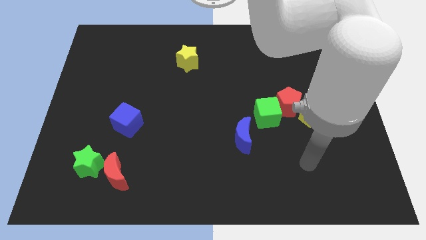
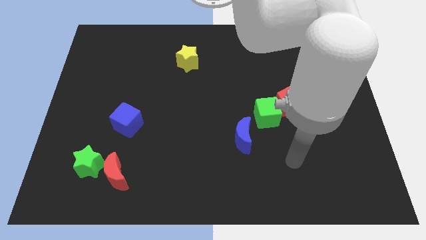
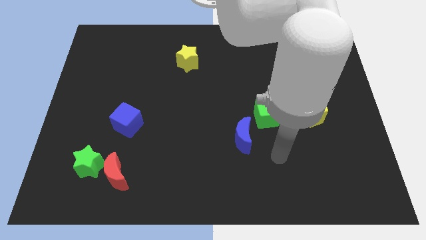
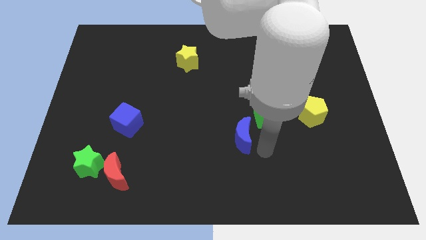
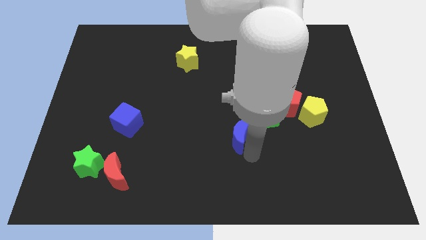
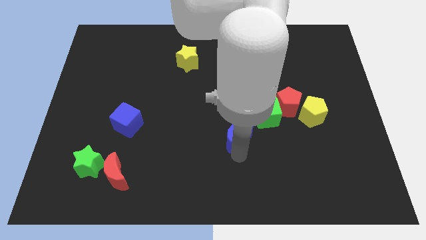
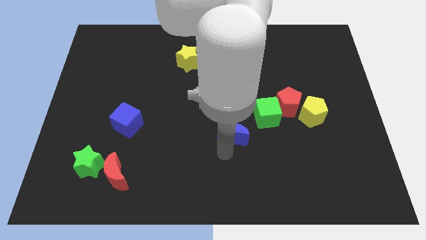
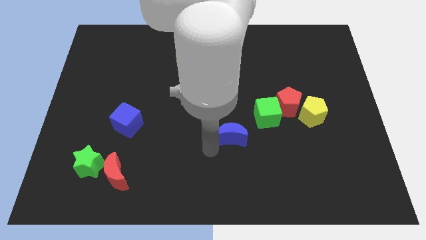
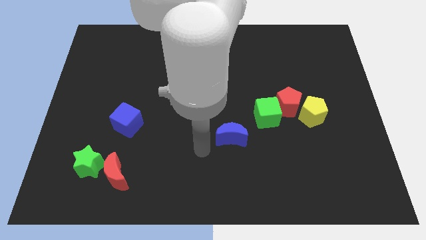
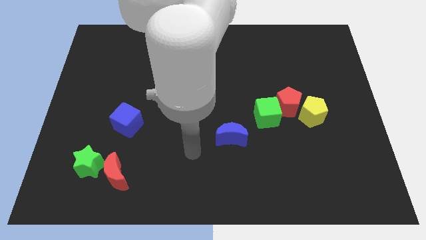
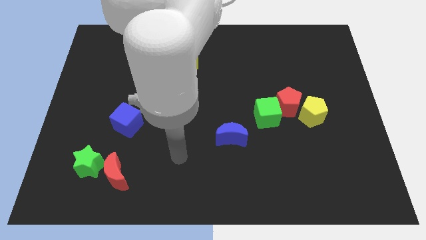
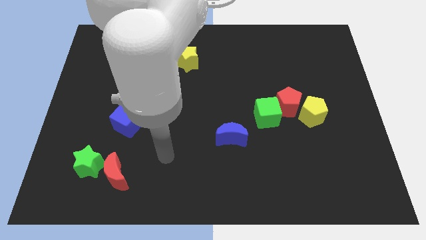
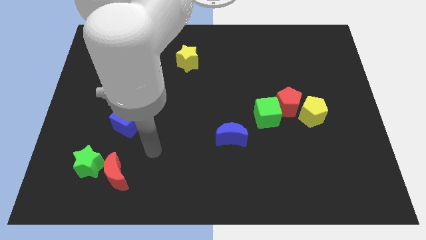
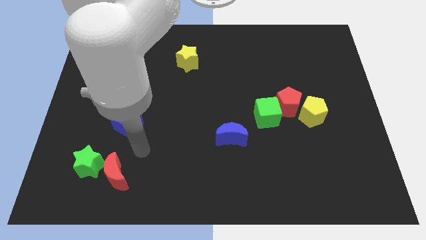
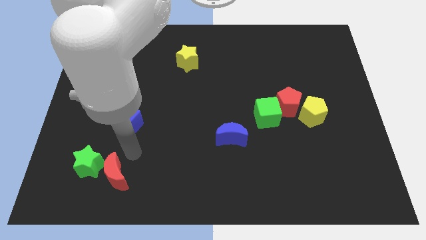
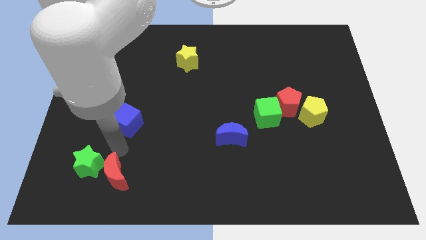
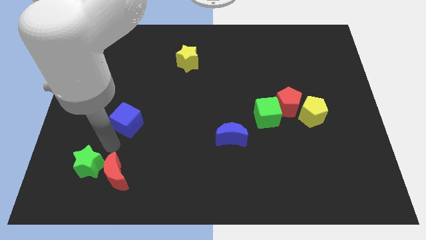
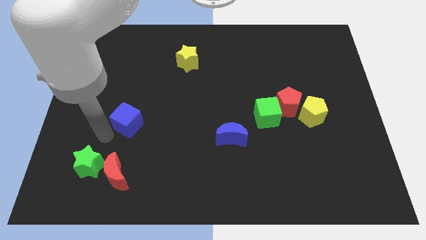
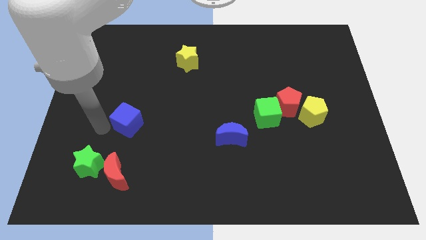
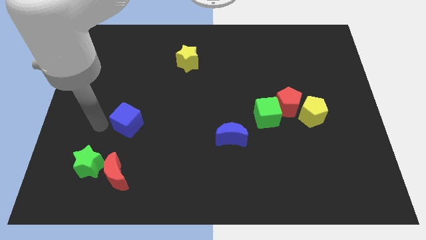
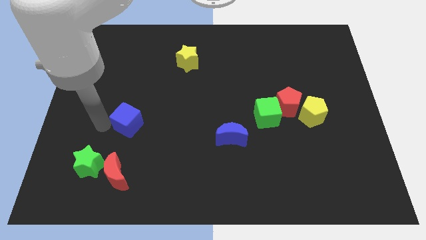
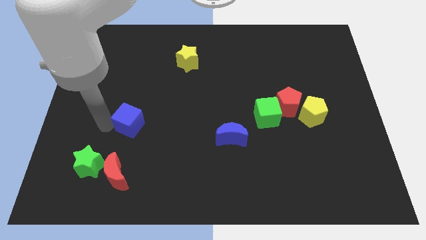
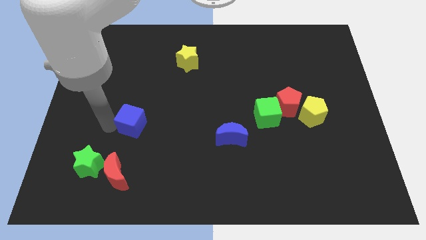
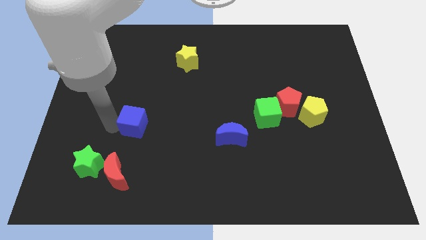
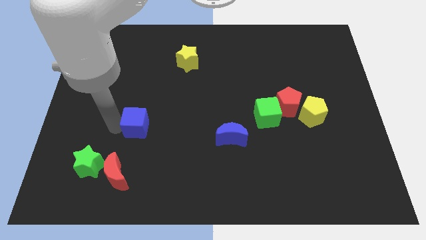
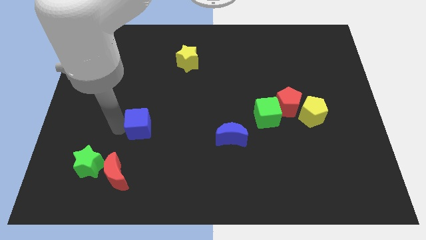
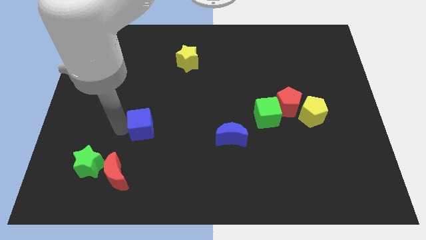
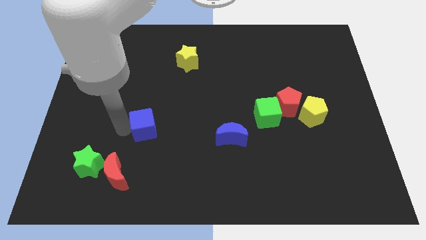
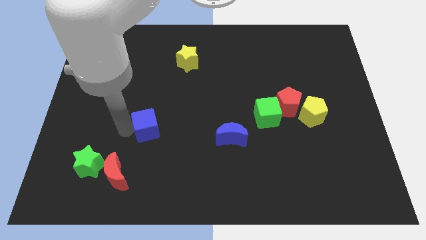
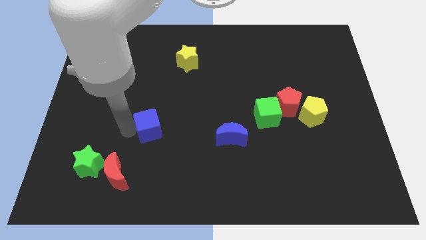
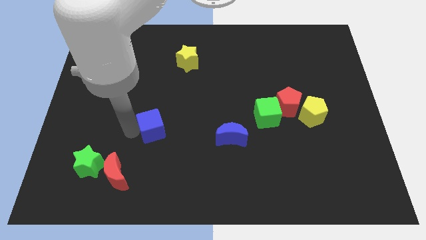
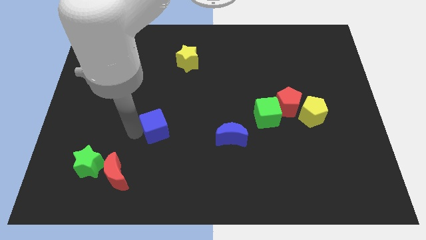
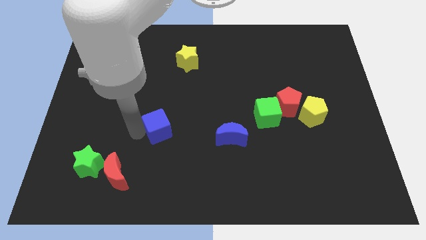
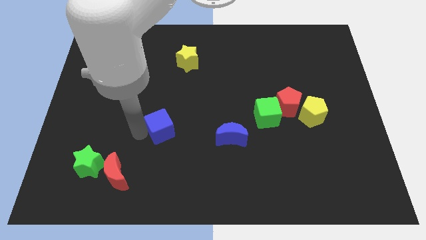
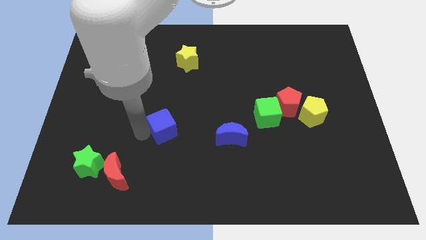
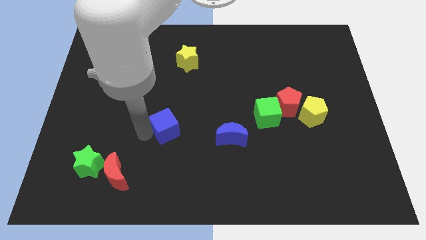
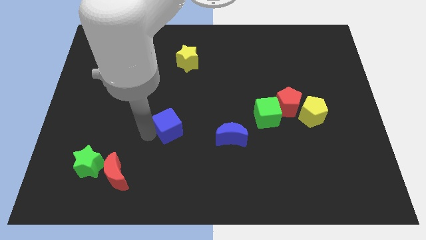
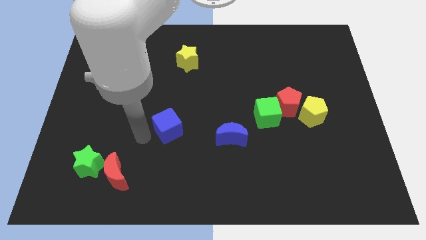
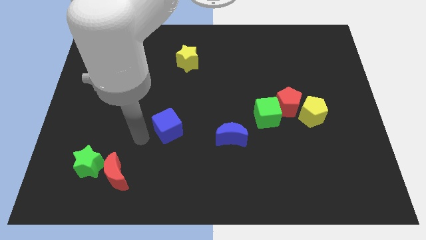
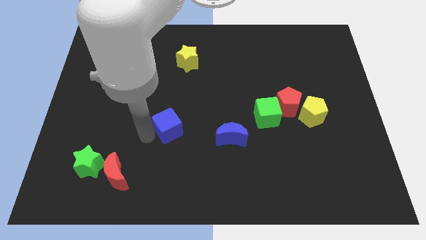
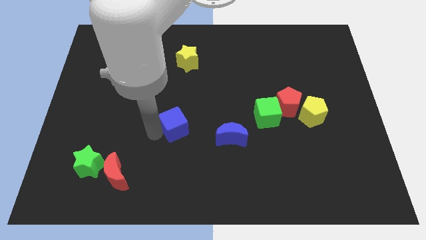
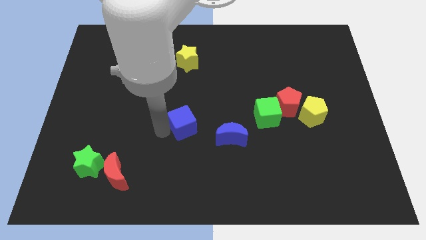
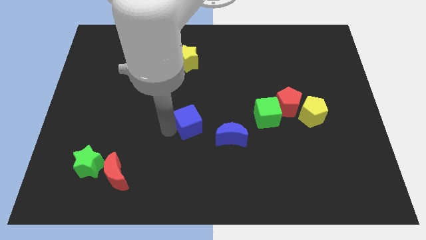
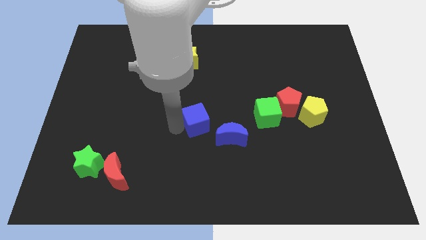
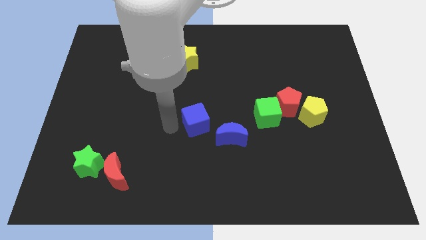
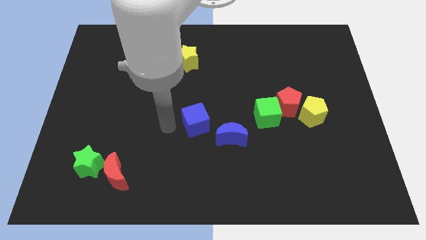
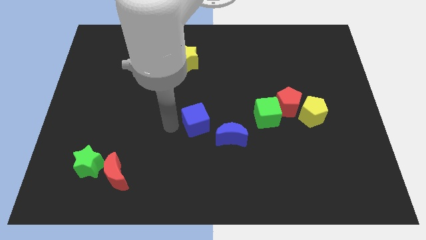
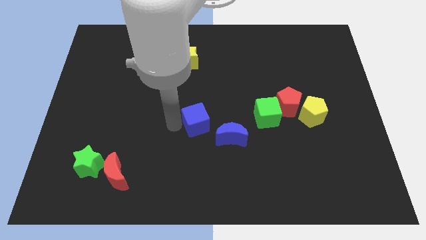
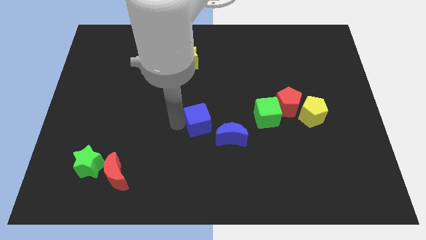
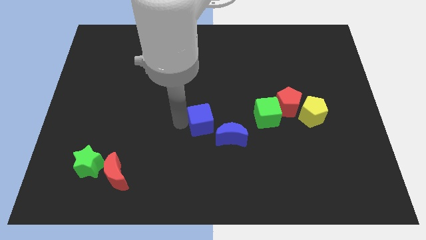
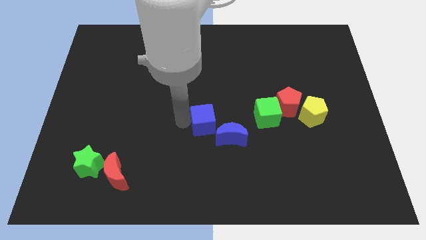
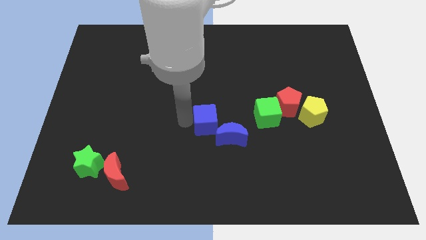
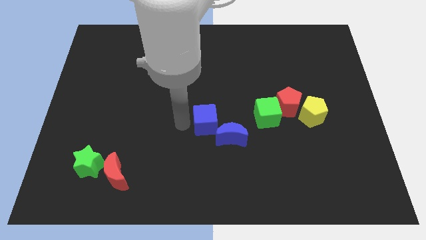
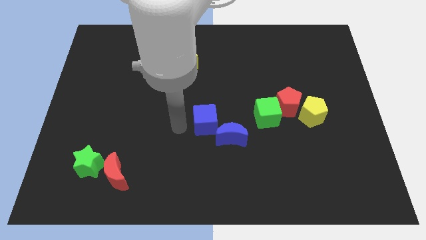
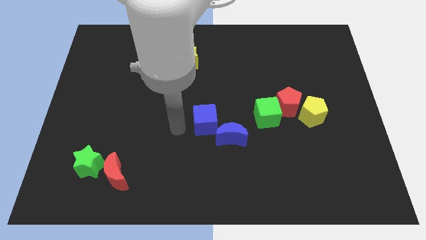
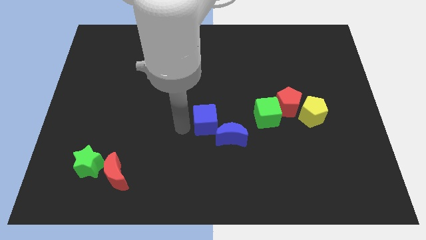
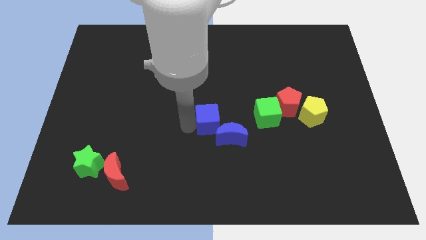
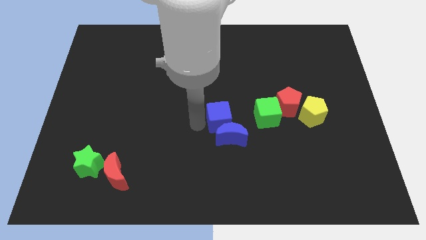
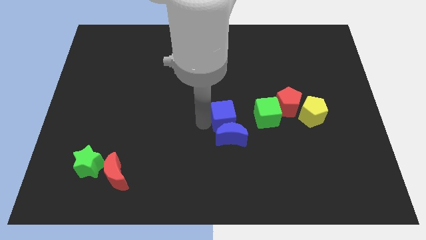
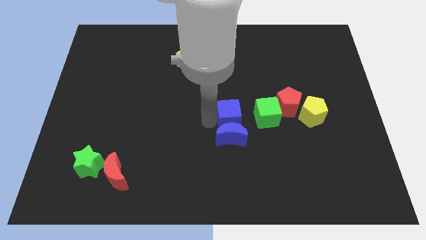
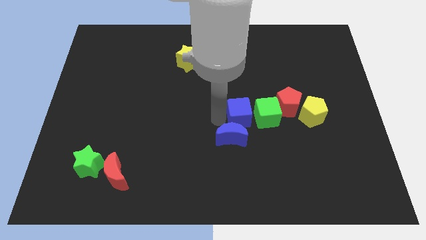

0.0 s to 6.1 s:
put the blue cube next to the green cube
